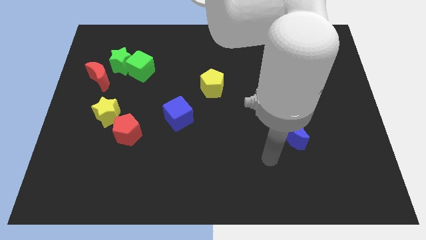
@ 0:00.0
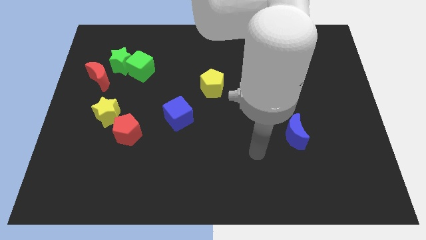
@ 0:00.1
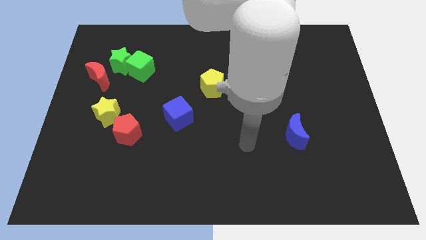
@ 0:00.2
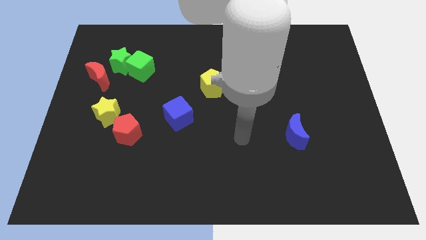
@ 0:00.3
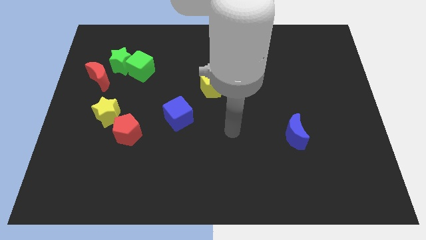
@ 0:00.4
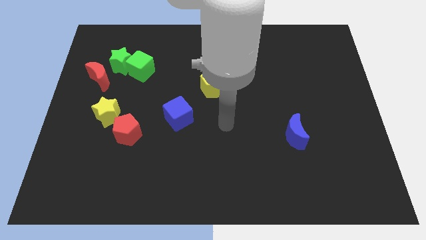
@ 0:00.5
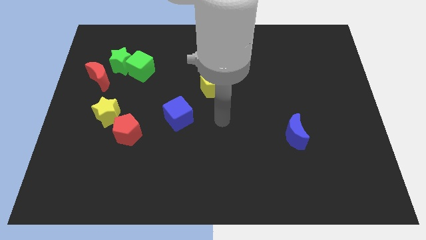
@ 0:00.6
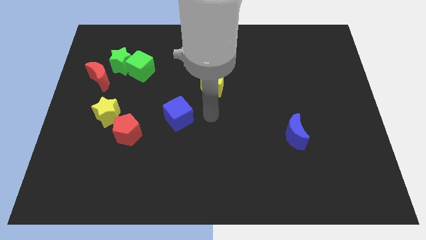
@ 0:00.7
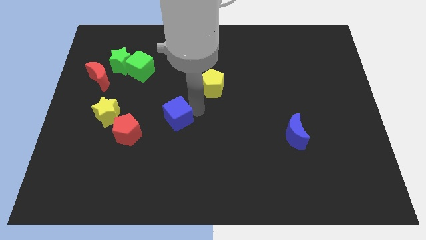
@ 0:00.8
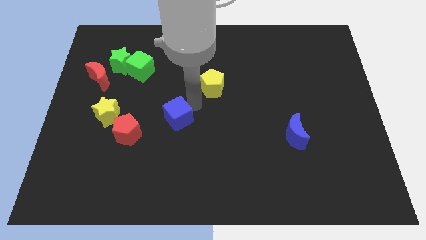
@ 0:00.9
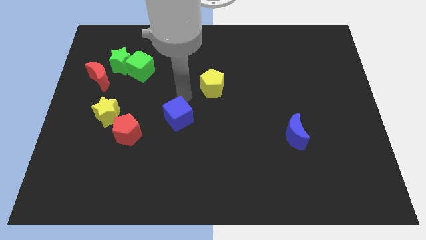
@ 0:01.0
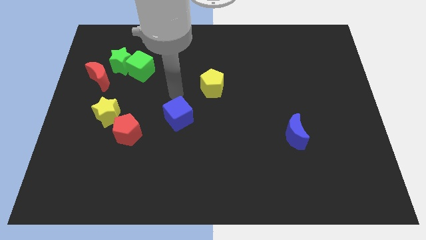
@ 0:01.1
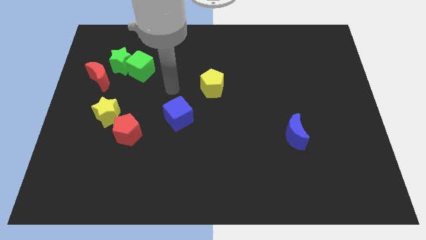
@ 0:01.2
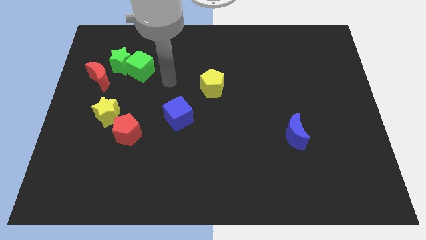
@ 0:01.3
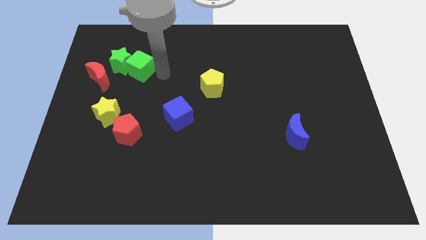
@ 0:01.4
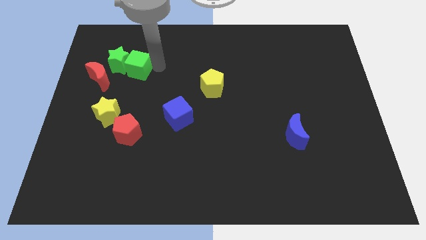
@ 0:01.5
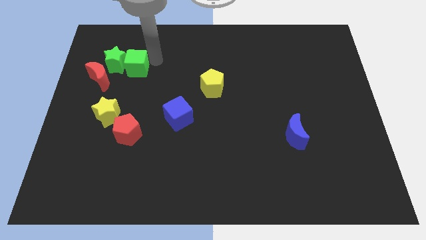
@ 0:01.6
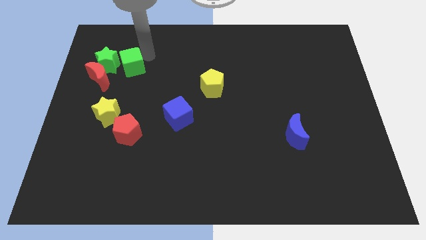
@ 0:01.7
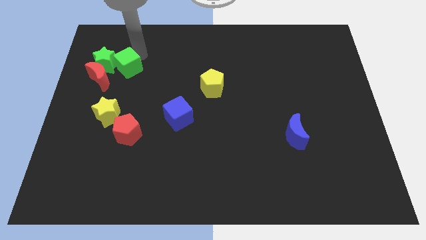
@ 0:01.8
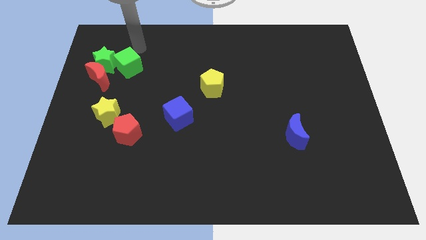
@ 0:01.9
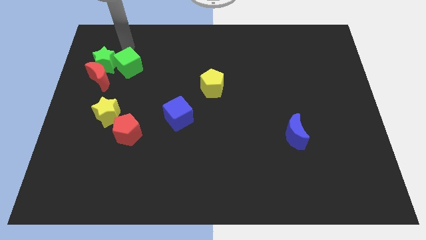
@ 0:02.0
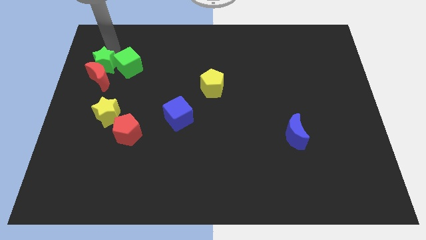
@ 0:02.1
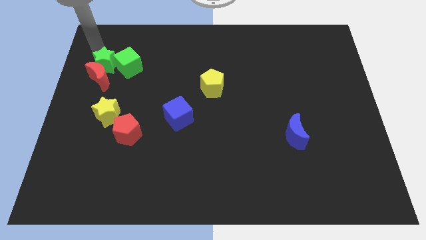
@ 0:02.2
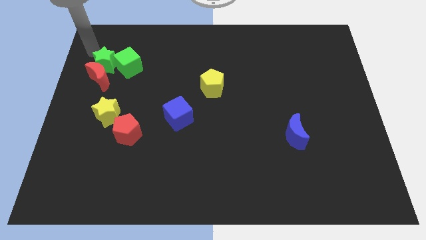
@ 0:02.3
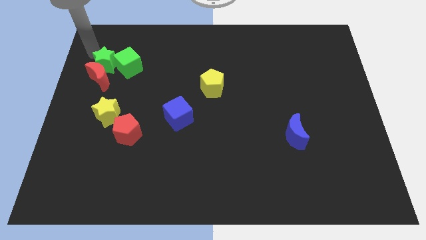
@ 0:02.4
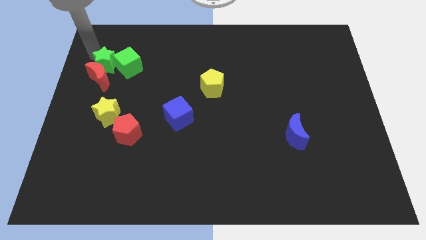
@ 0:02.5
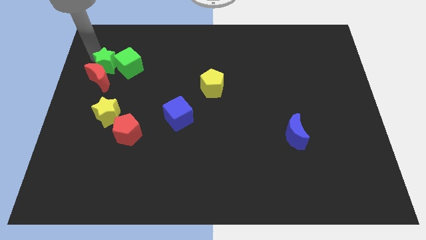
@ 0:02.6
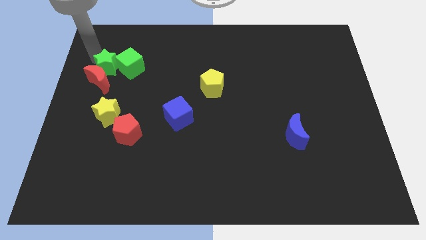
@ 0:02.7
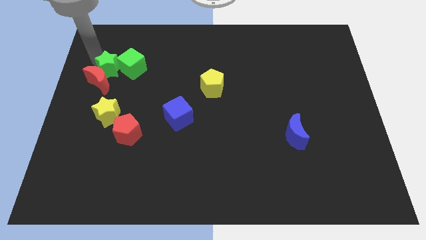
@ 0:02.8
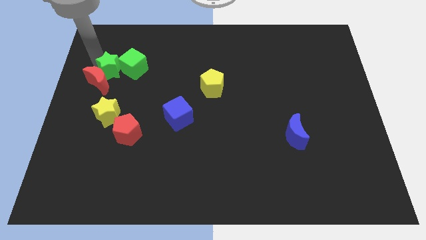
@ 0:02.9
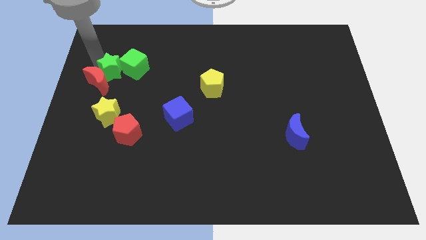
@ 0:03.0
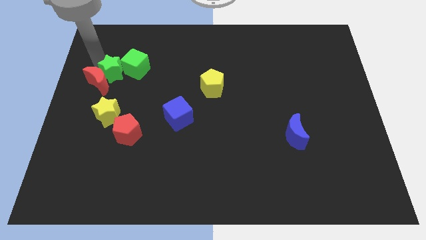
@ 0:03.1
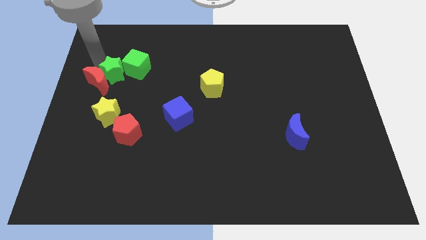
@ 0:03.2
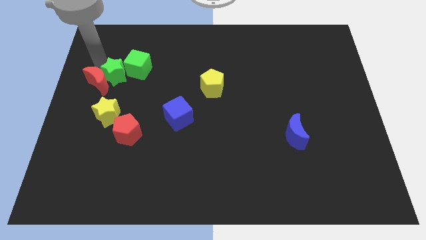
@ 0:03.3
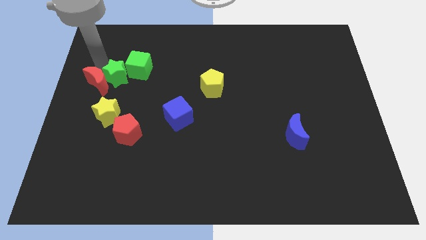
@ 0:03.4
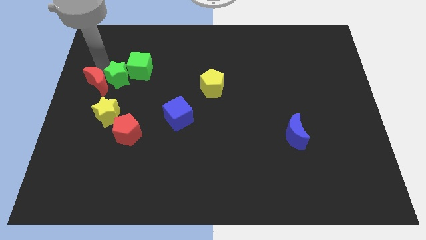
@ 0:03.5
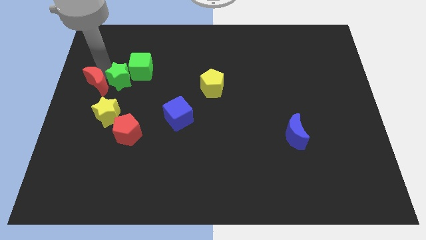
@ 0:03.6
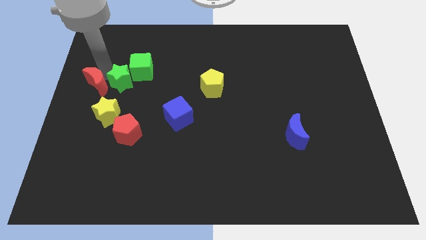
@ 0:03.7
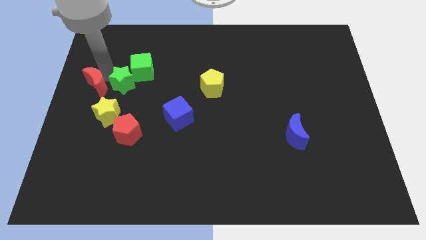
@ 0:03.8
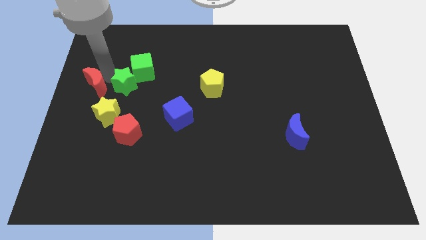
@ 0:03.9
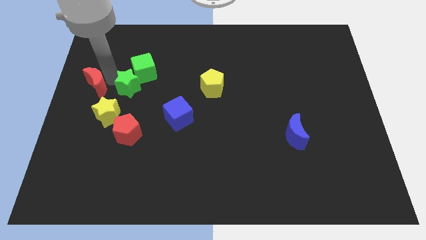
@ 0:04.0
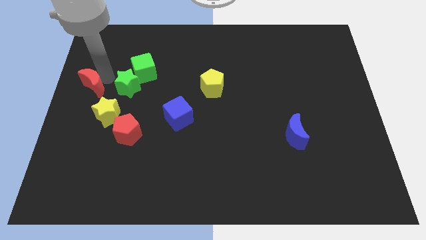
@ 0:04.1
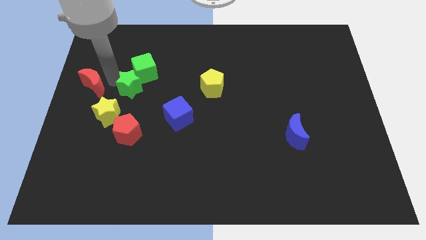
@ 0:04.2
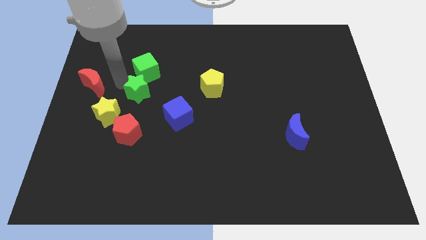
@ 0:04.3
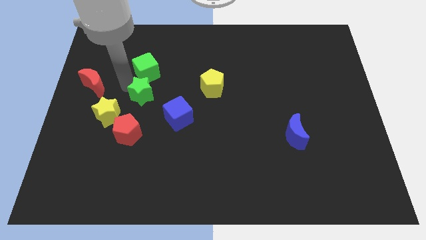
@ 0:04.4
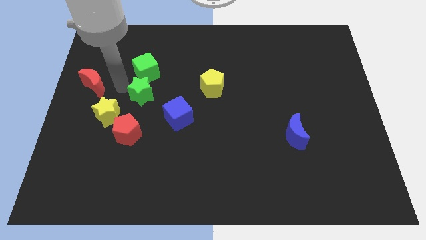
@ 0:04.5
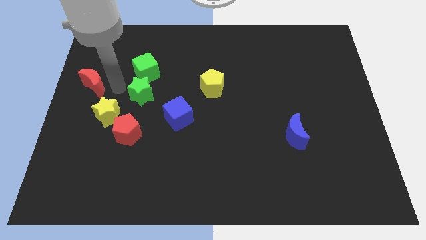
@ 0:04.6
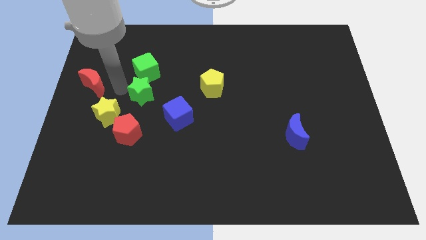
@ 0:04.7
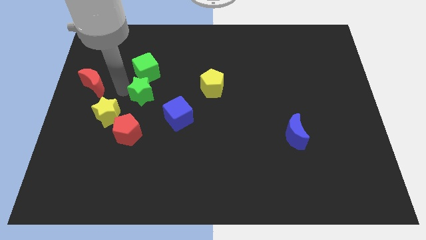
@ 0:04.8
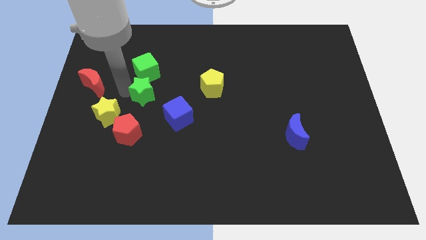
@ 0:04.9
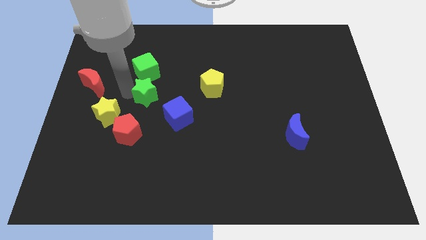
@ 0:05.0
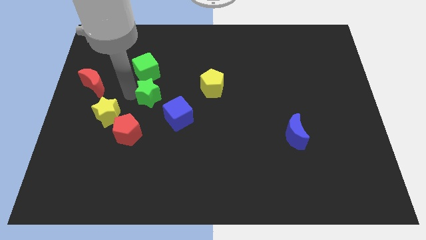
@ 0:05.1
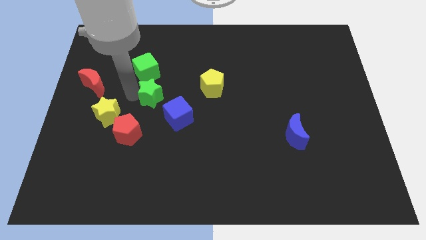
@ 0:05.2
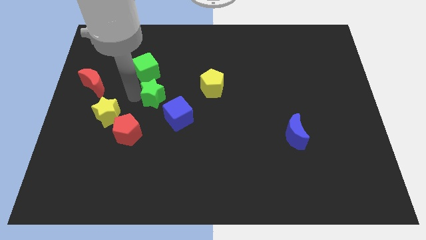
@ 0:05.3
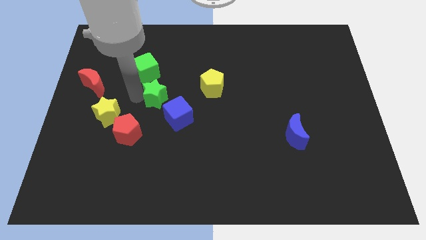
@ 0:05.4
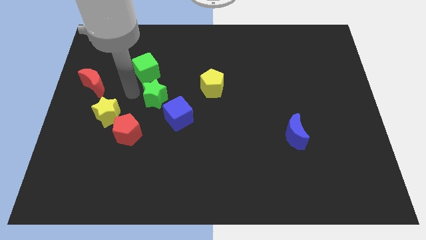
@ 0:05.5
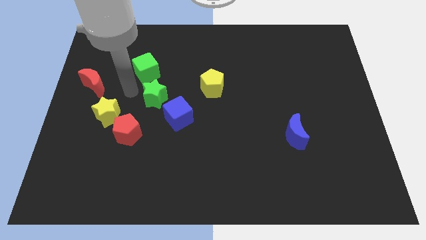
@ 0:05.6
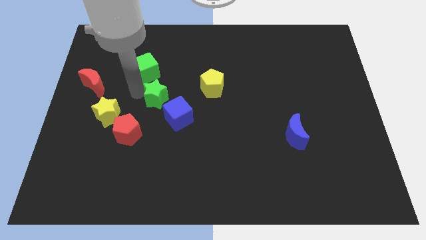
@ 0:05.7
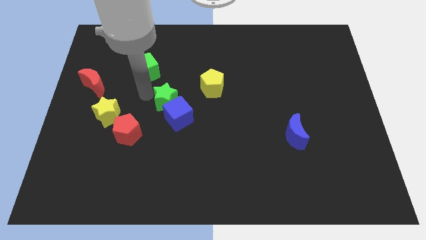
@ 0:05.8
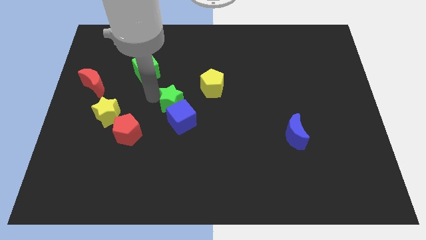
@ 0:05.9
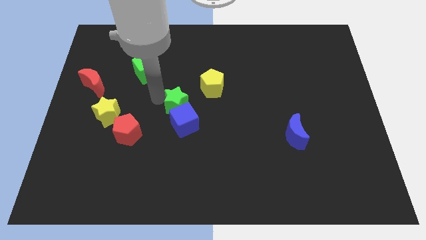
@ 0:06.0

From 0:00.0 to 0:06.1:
move the green star downwards and then to the right

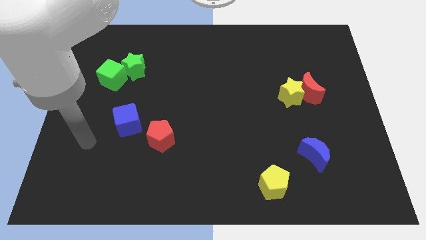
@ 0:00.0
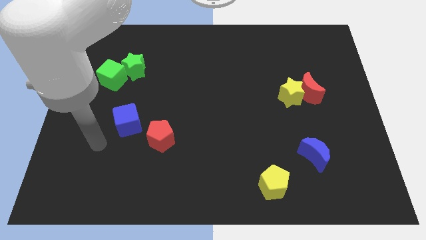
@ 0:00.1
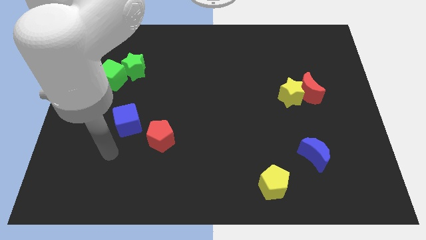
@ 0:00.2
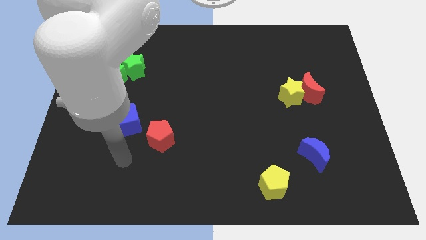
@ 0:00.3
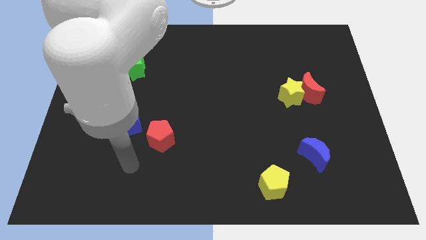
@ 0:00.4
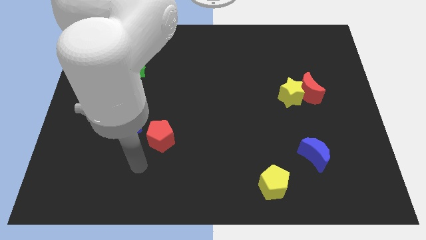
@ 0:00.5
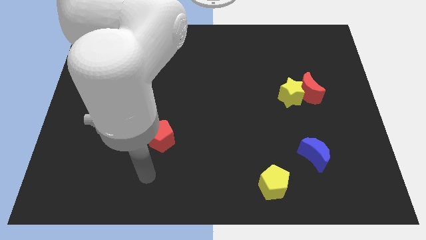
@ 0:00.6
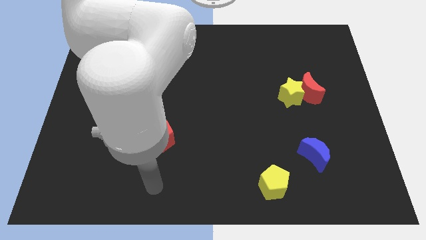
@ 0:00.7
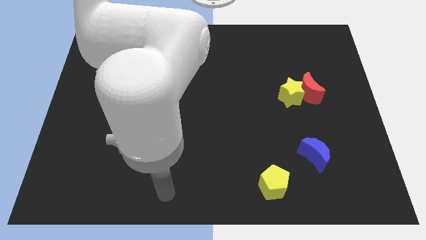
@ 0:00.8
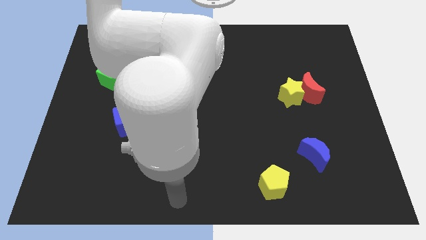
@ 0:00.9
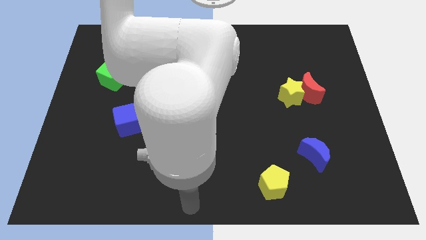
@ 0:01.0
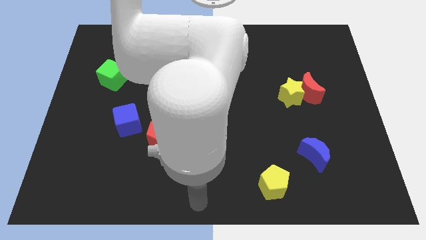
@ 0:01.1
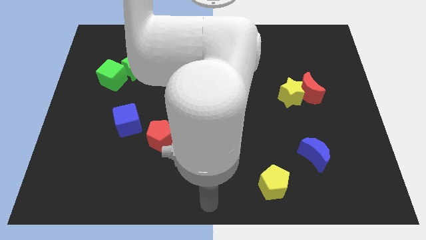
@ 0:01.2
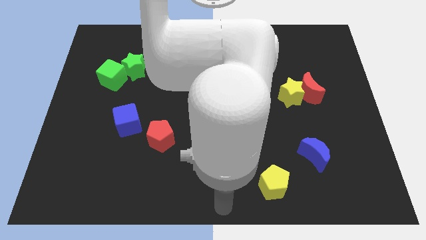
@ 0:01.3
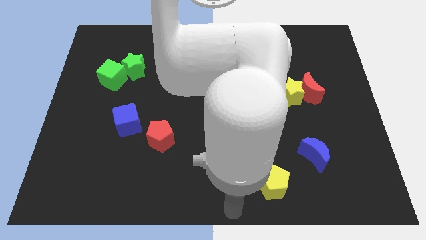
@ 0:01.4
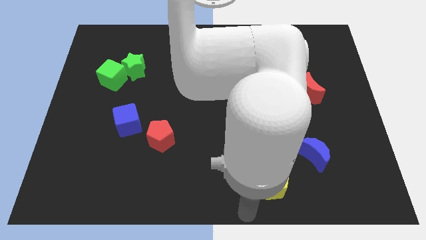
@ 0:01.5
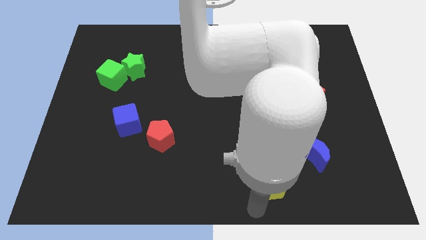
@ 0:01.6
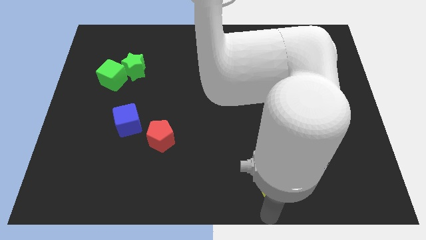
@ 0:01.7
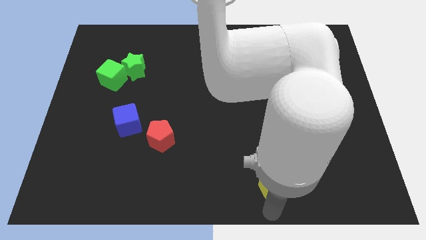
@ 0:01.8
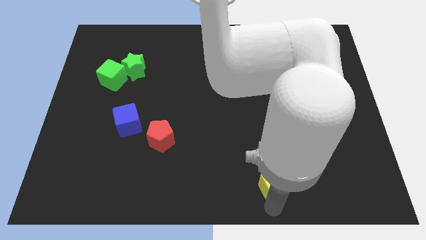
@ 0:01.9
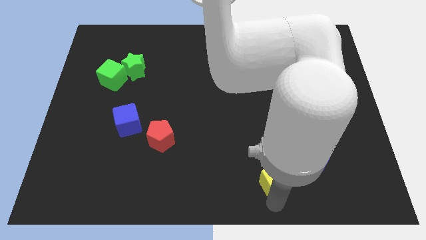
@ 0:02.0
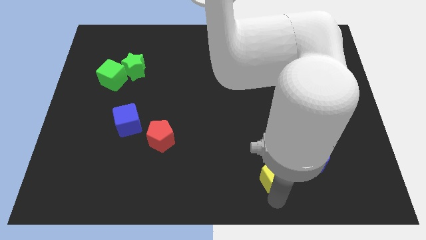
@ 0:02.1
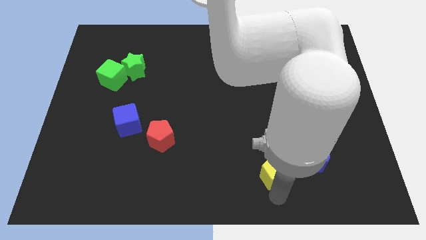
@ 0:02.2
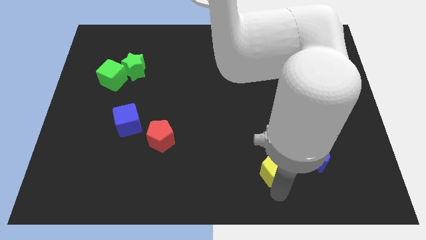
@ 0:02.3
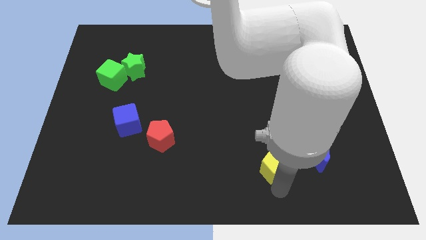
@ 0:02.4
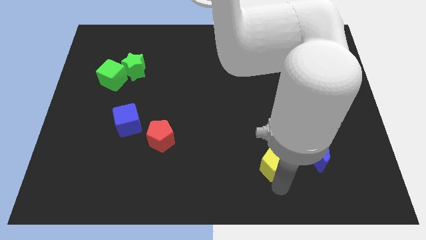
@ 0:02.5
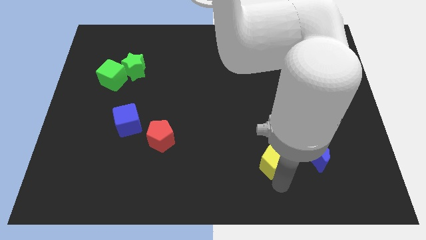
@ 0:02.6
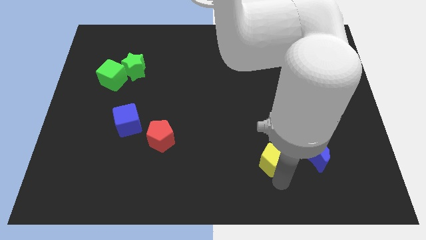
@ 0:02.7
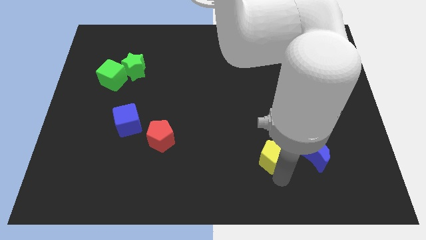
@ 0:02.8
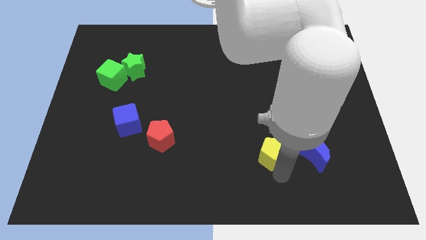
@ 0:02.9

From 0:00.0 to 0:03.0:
slide the yellow pentagon up a little bit
